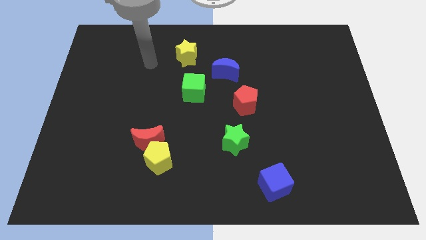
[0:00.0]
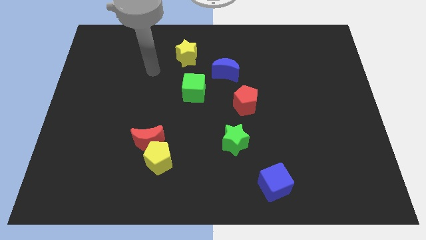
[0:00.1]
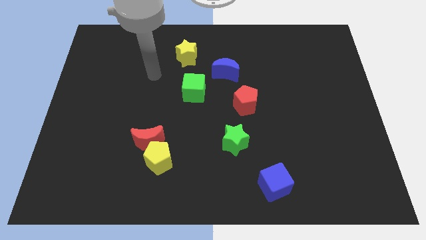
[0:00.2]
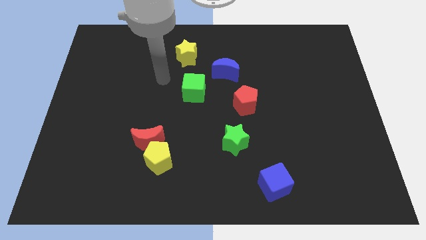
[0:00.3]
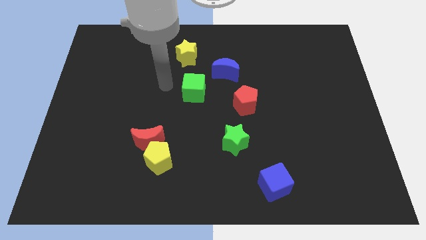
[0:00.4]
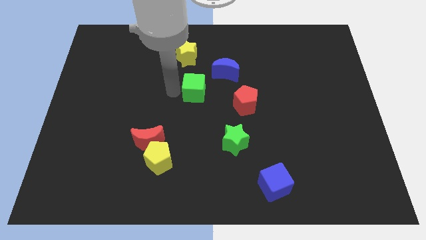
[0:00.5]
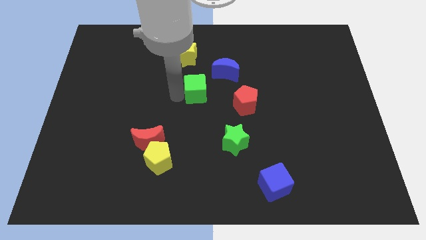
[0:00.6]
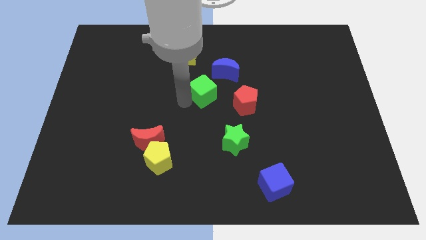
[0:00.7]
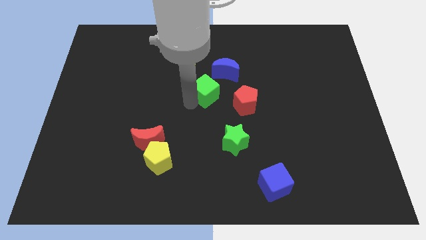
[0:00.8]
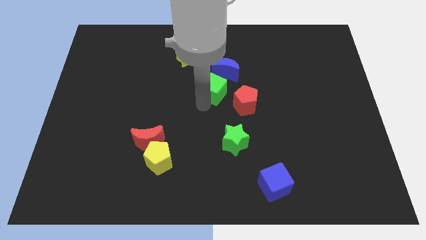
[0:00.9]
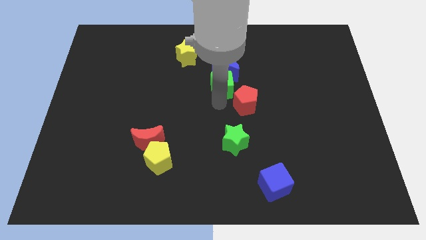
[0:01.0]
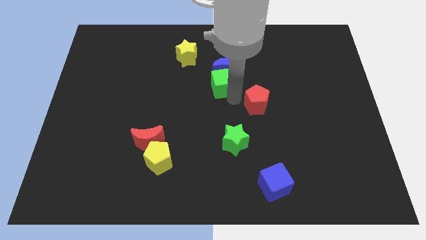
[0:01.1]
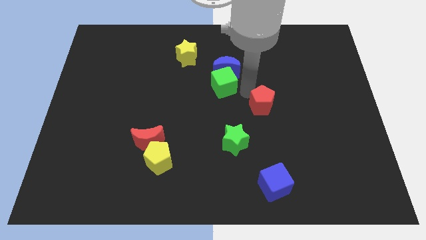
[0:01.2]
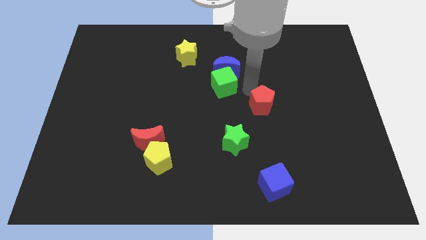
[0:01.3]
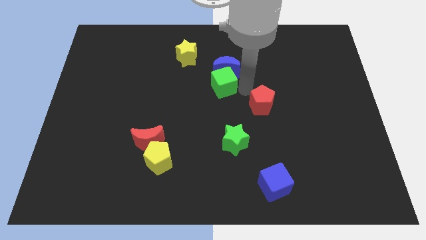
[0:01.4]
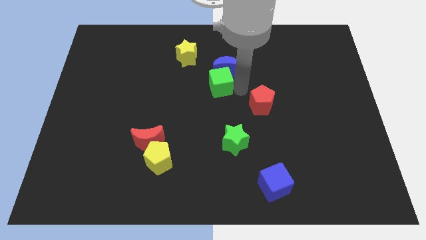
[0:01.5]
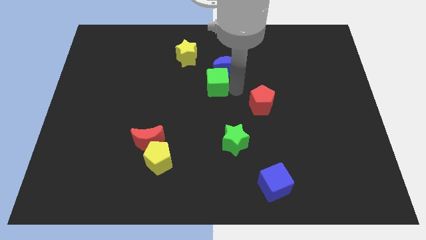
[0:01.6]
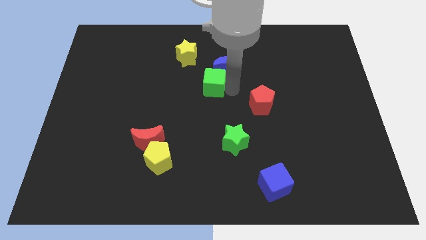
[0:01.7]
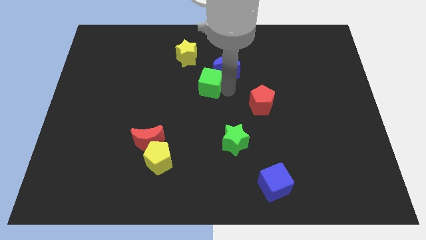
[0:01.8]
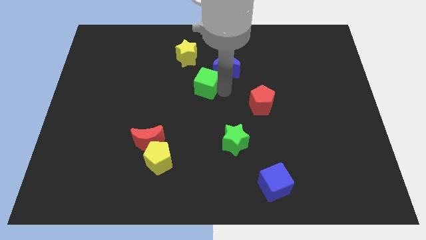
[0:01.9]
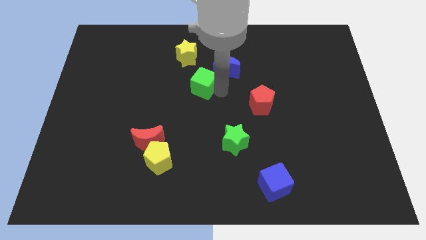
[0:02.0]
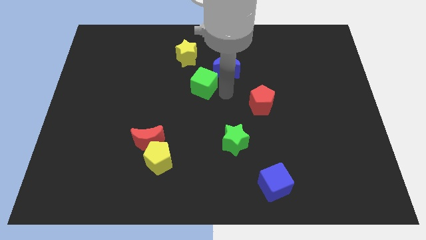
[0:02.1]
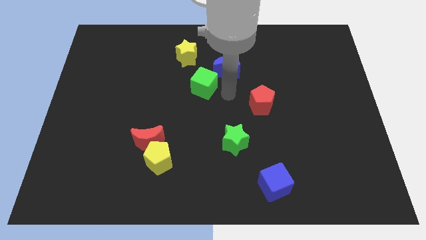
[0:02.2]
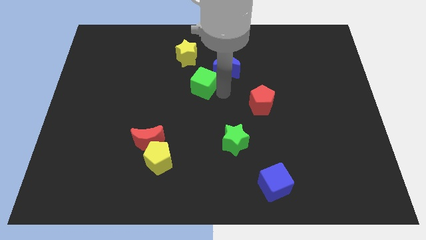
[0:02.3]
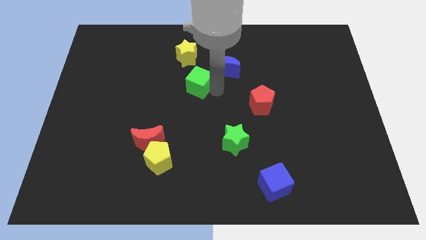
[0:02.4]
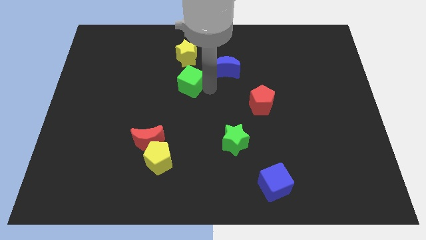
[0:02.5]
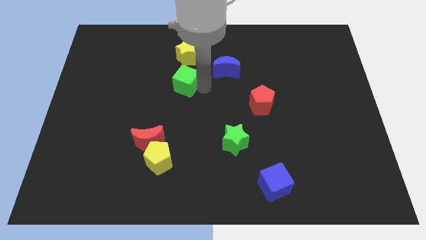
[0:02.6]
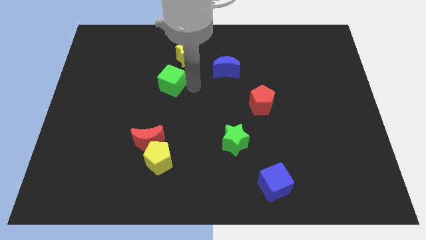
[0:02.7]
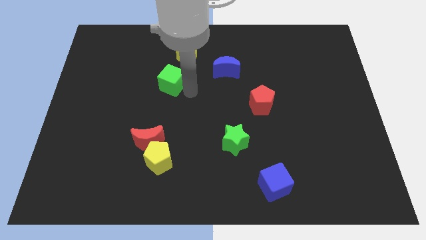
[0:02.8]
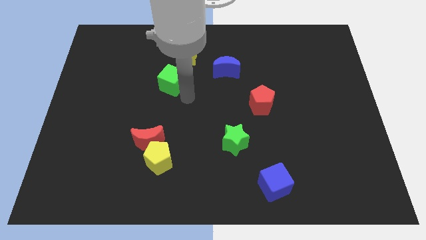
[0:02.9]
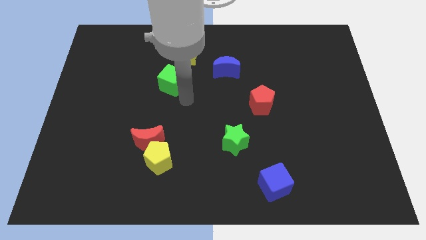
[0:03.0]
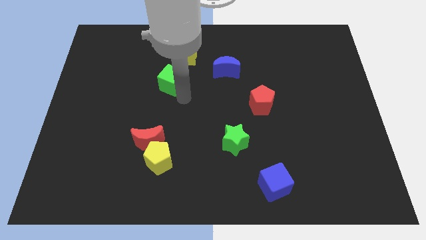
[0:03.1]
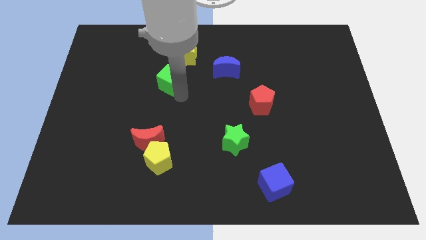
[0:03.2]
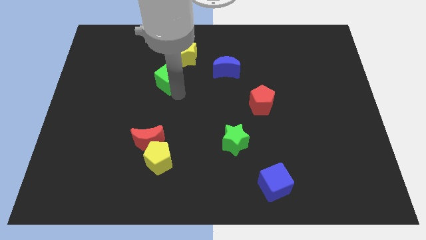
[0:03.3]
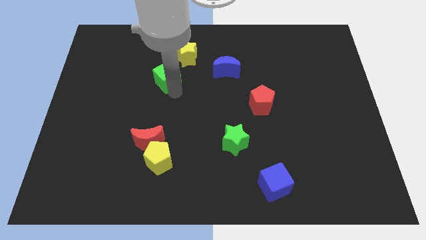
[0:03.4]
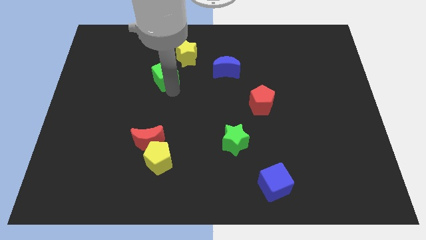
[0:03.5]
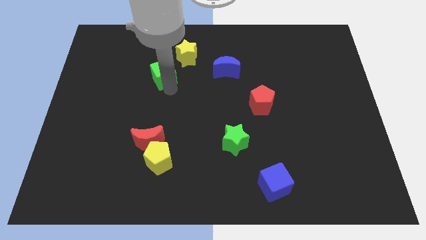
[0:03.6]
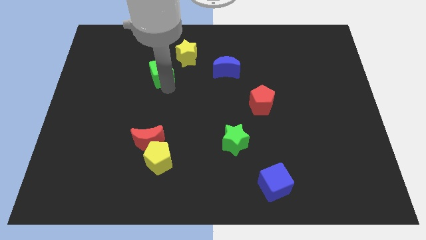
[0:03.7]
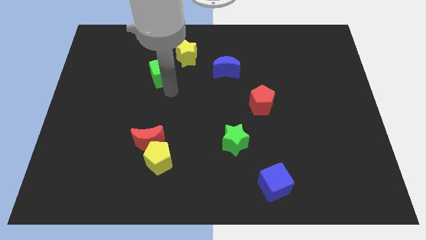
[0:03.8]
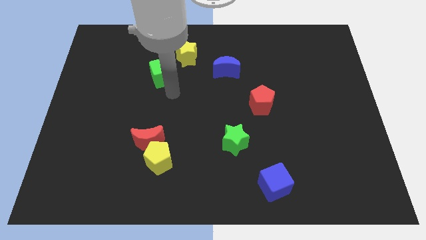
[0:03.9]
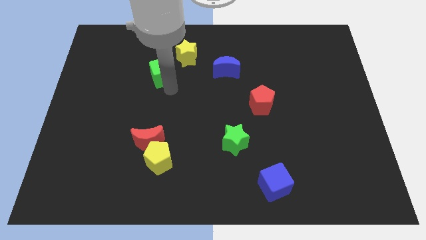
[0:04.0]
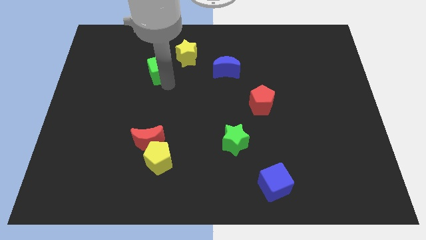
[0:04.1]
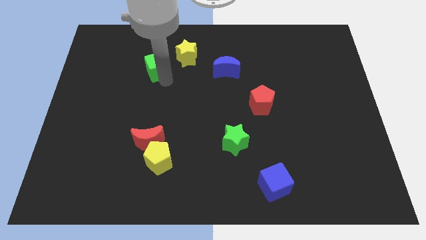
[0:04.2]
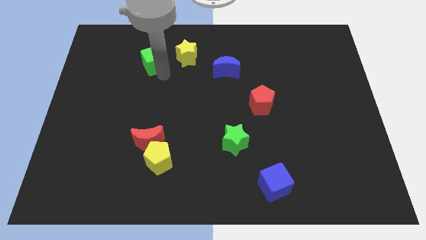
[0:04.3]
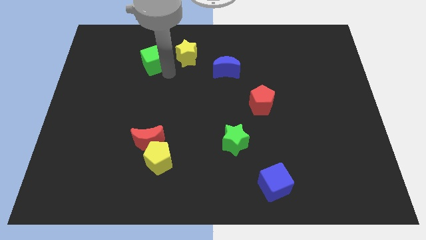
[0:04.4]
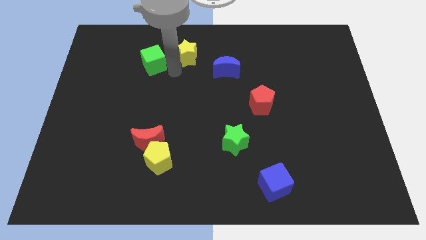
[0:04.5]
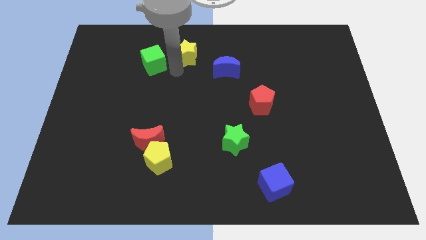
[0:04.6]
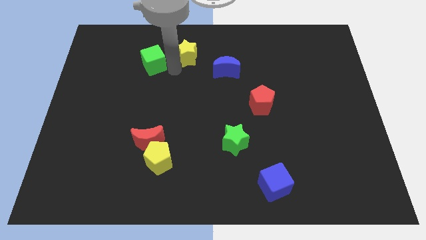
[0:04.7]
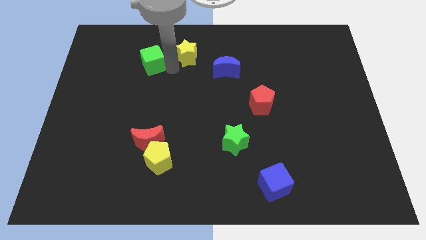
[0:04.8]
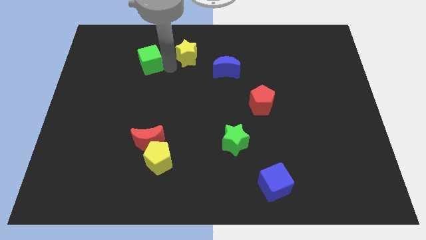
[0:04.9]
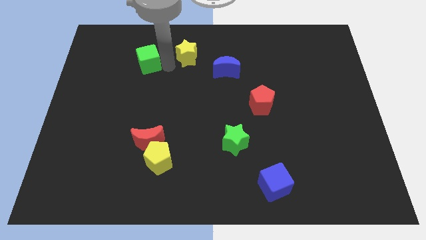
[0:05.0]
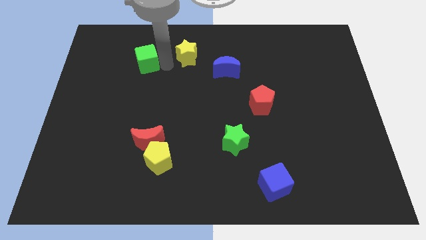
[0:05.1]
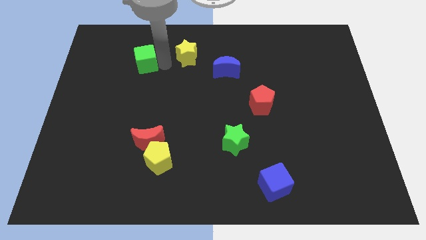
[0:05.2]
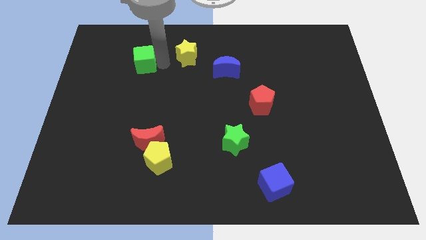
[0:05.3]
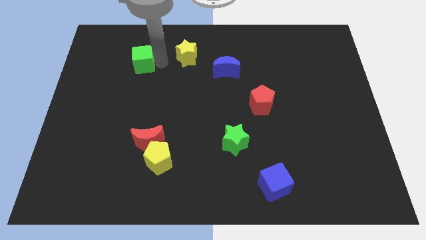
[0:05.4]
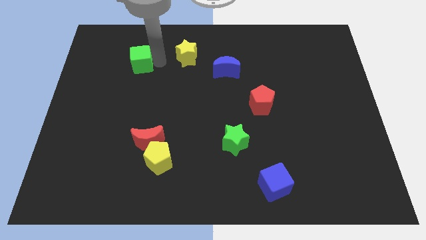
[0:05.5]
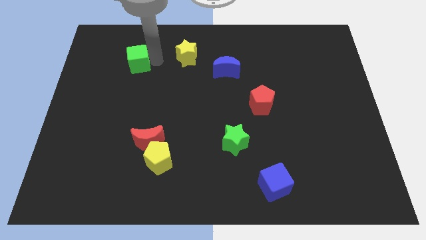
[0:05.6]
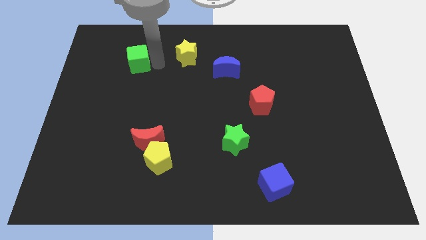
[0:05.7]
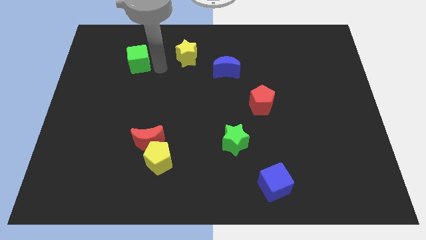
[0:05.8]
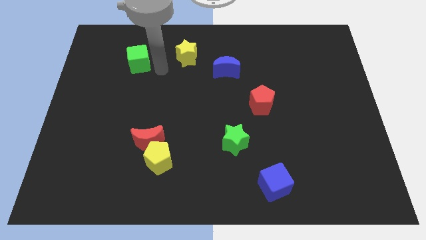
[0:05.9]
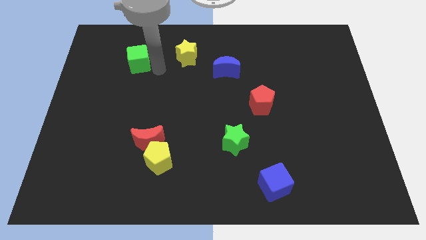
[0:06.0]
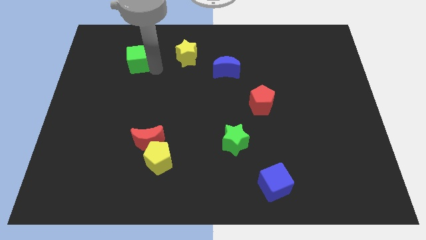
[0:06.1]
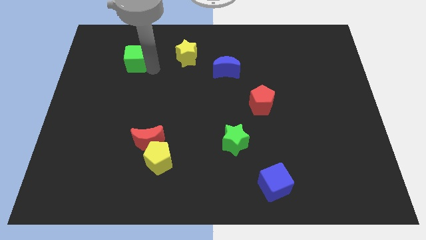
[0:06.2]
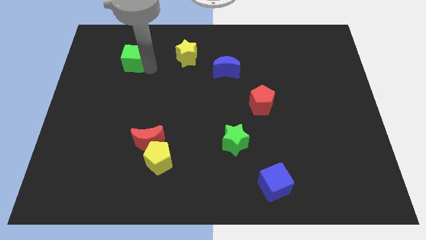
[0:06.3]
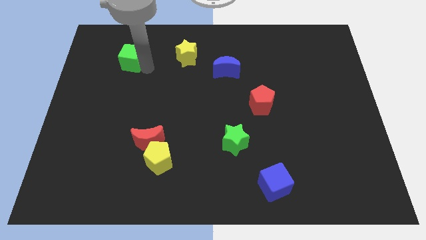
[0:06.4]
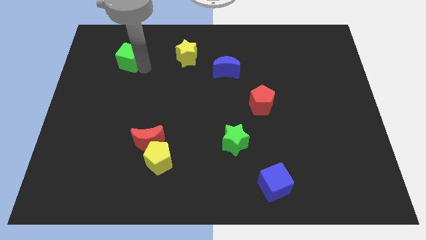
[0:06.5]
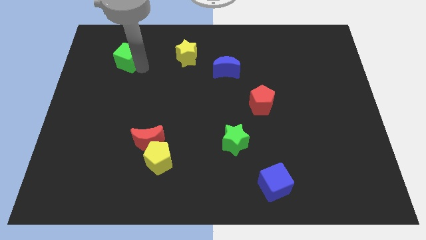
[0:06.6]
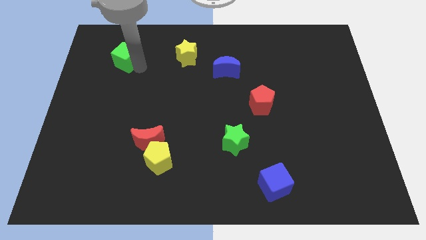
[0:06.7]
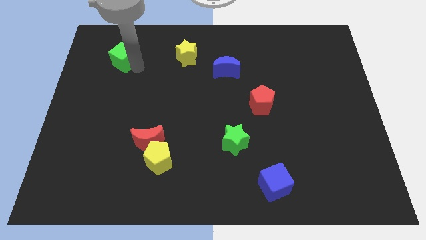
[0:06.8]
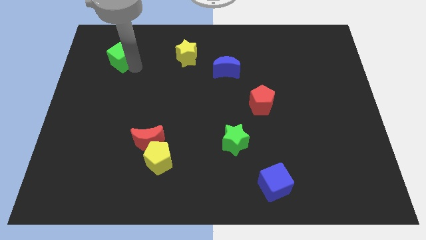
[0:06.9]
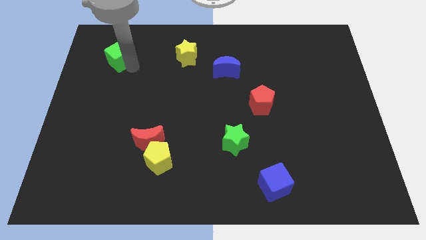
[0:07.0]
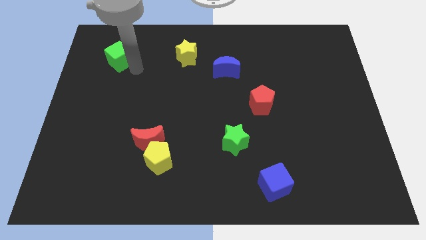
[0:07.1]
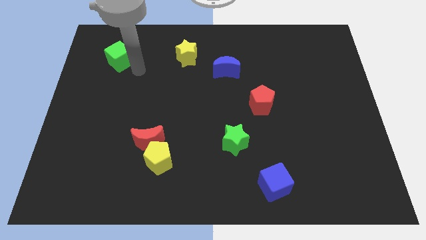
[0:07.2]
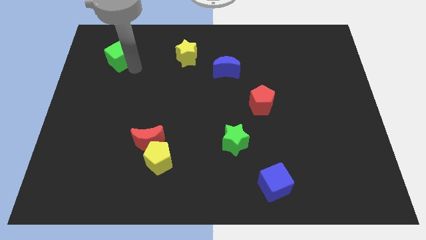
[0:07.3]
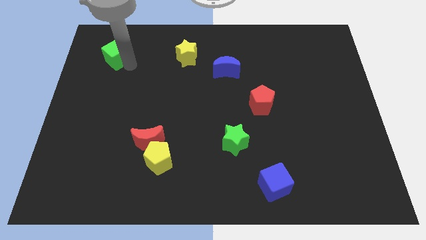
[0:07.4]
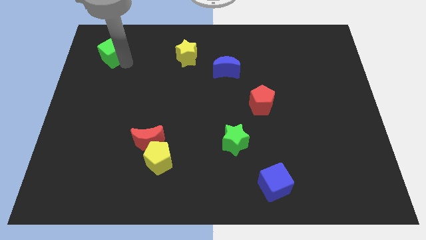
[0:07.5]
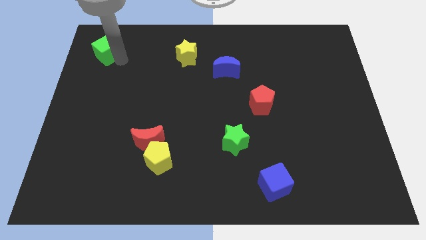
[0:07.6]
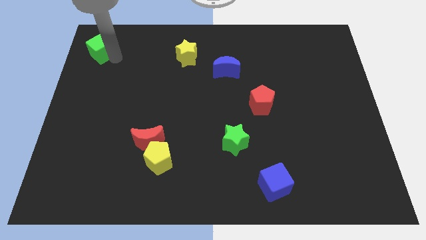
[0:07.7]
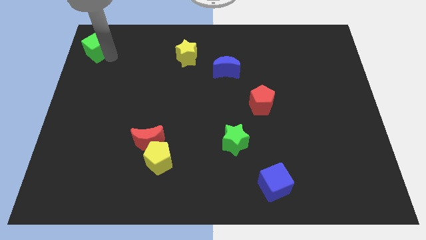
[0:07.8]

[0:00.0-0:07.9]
move the green cube to the upper left corner
